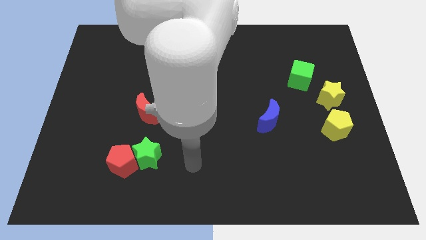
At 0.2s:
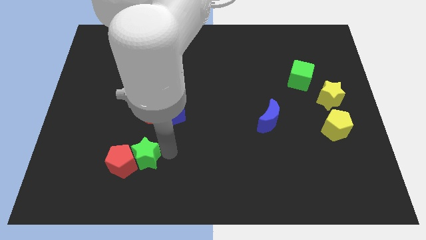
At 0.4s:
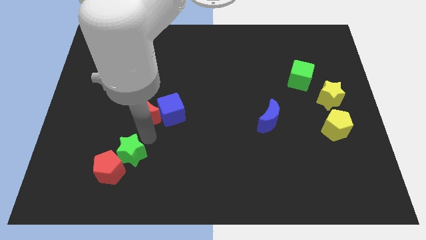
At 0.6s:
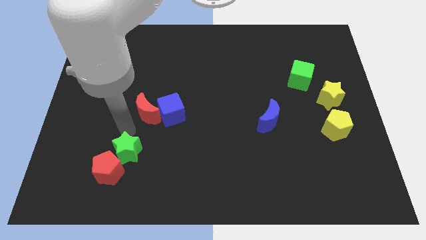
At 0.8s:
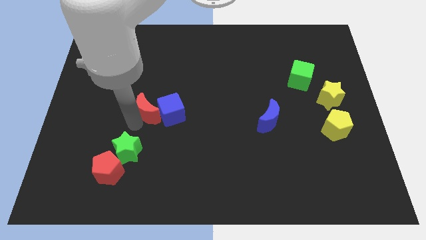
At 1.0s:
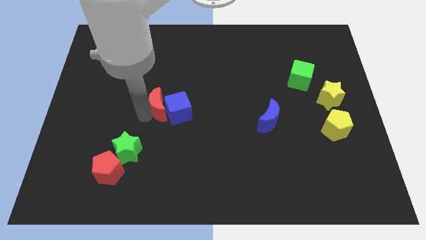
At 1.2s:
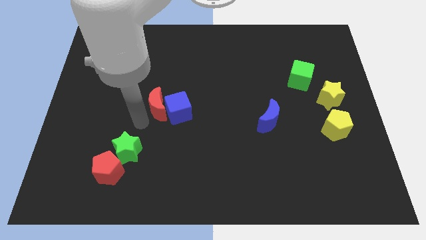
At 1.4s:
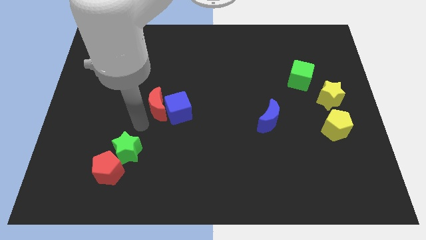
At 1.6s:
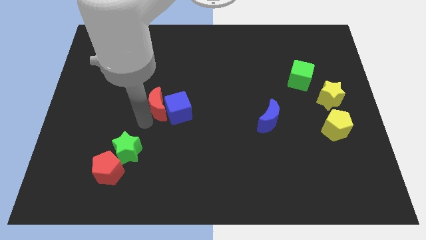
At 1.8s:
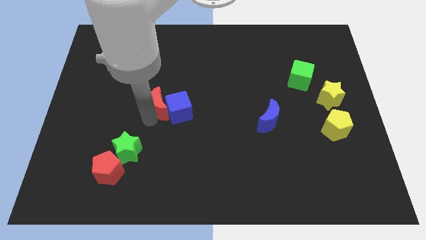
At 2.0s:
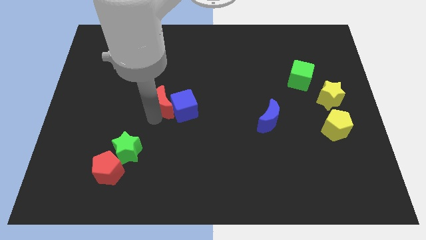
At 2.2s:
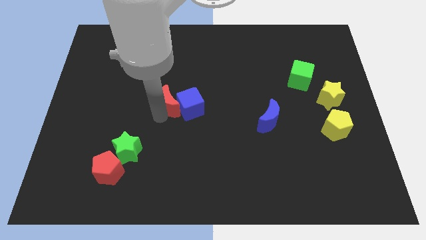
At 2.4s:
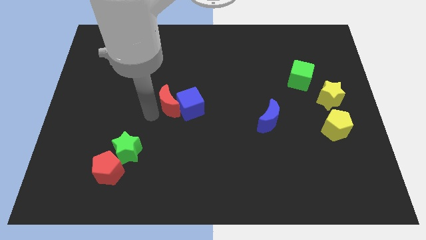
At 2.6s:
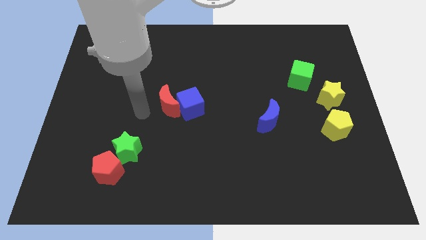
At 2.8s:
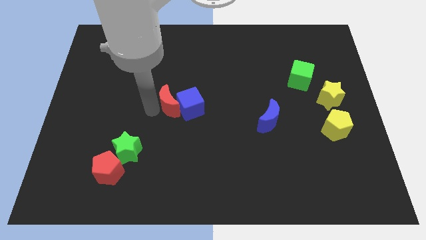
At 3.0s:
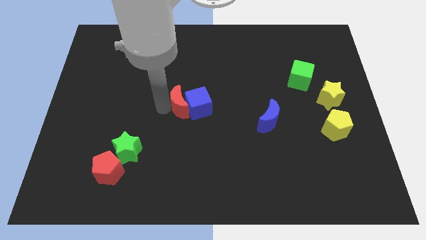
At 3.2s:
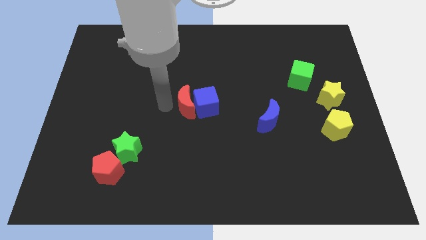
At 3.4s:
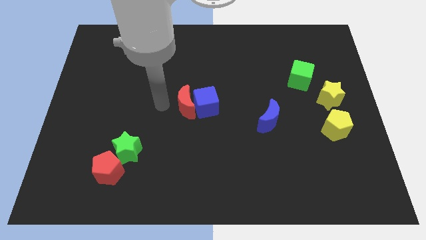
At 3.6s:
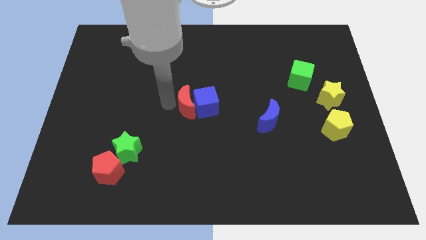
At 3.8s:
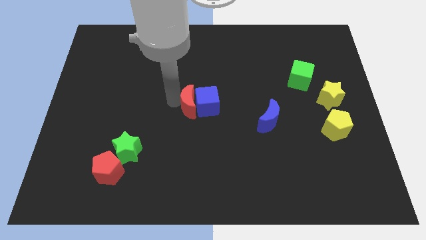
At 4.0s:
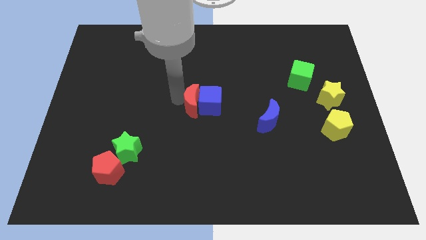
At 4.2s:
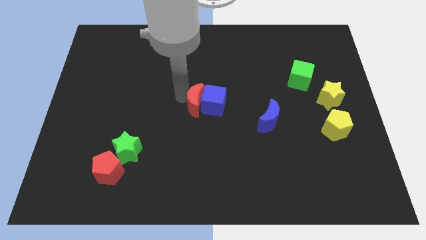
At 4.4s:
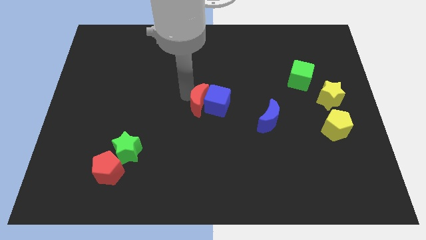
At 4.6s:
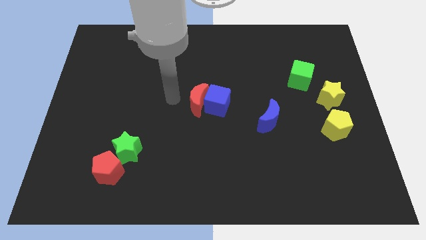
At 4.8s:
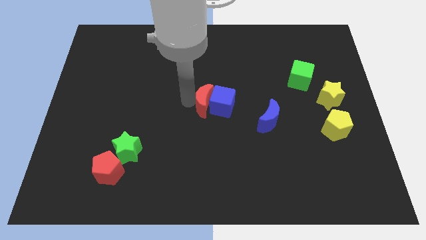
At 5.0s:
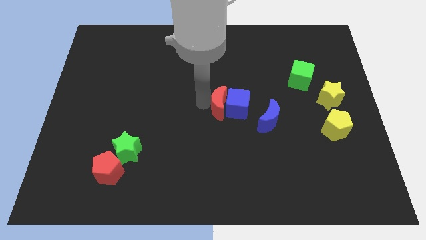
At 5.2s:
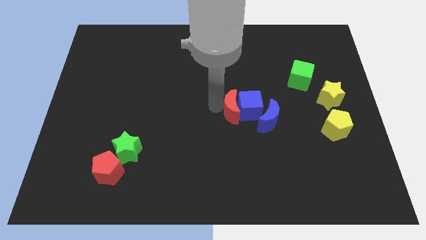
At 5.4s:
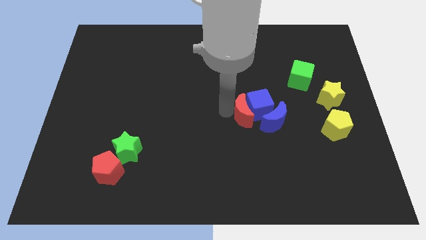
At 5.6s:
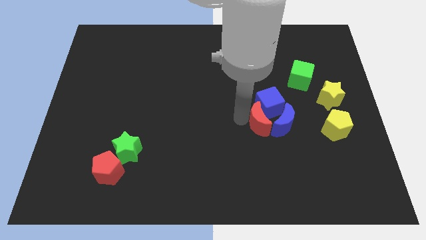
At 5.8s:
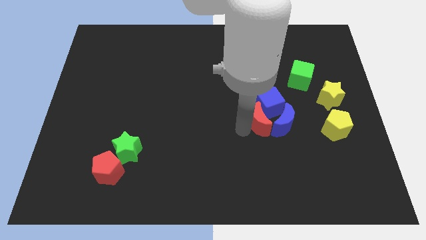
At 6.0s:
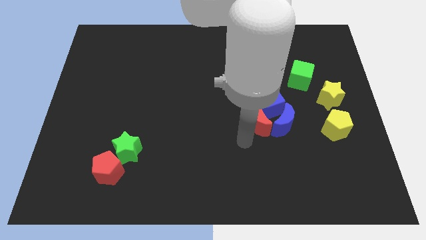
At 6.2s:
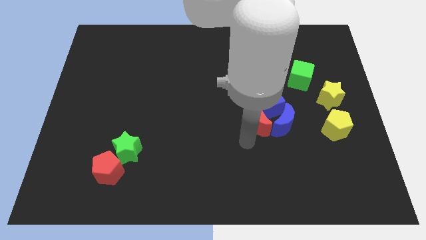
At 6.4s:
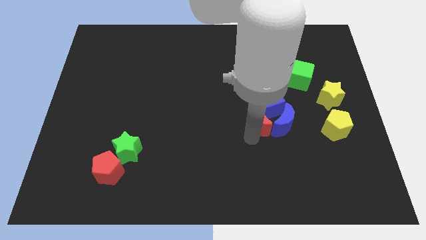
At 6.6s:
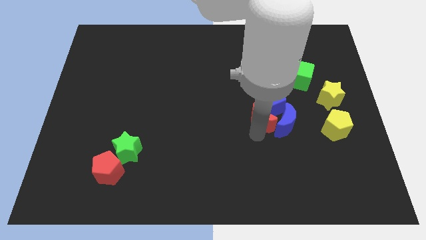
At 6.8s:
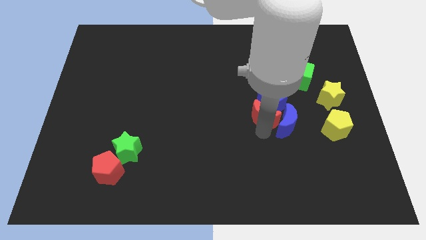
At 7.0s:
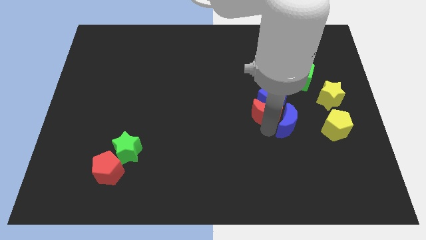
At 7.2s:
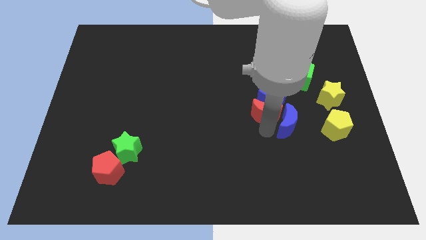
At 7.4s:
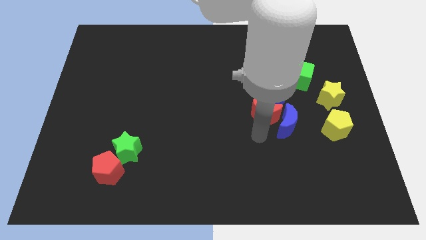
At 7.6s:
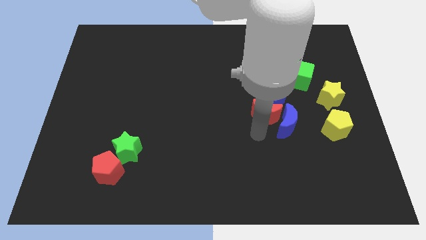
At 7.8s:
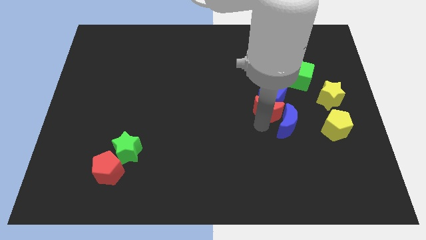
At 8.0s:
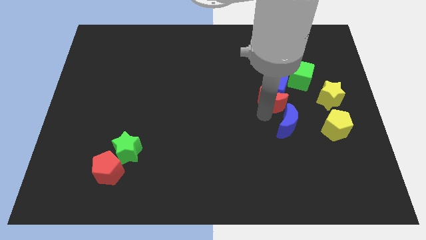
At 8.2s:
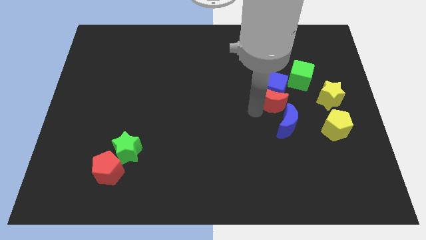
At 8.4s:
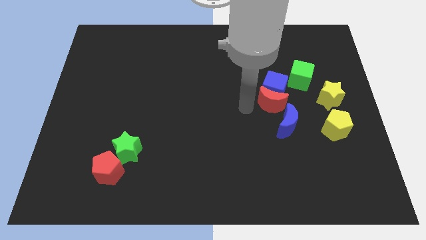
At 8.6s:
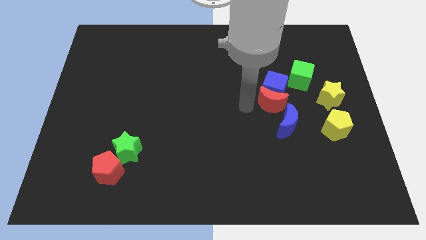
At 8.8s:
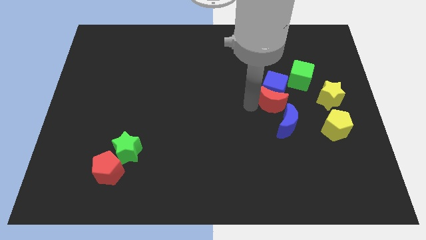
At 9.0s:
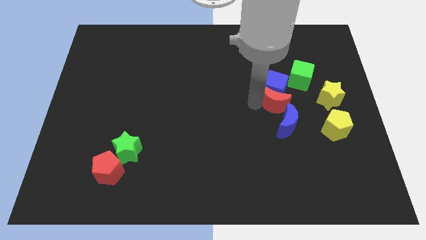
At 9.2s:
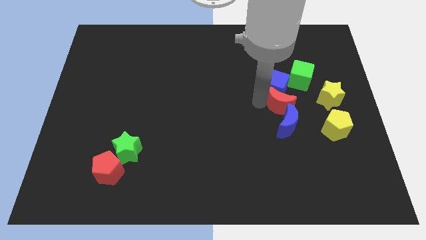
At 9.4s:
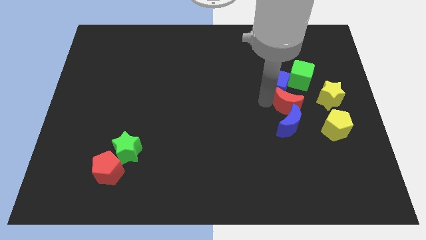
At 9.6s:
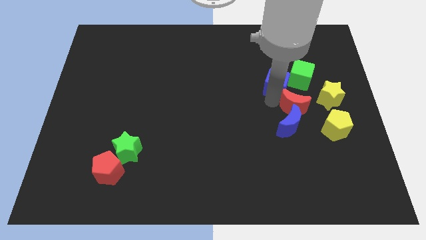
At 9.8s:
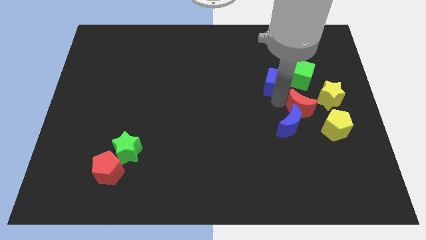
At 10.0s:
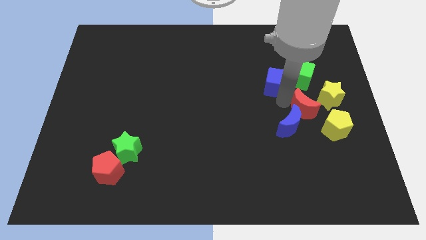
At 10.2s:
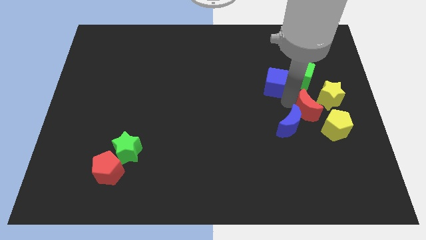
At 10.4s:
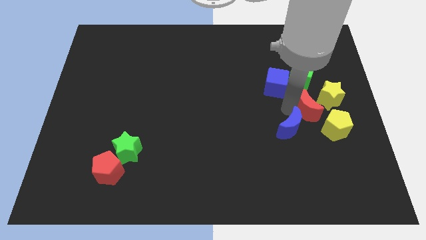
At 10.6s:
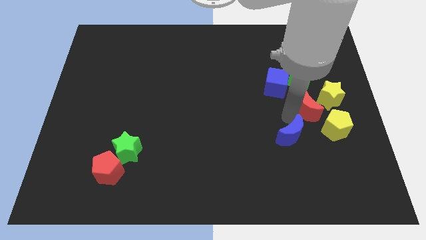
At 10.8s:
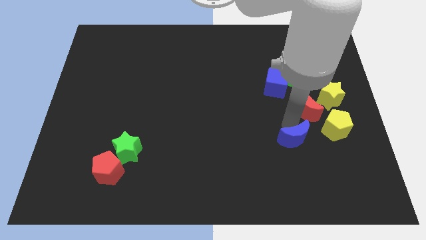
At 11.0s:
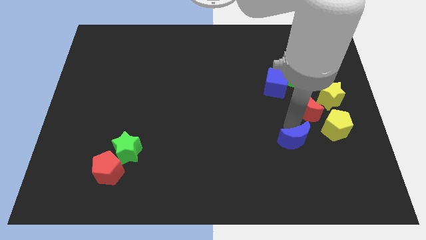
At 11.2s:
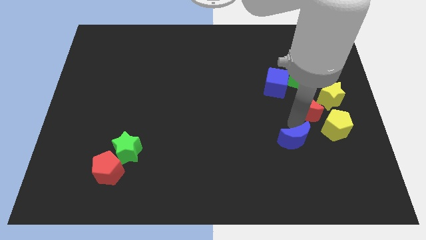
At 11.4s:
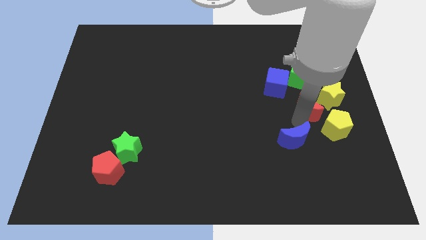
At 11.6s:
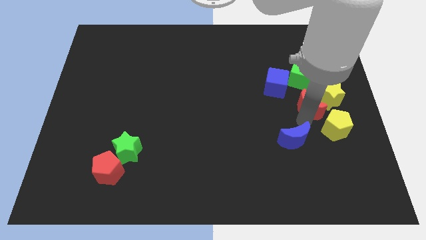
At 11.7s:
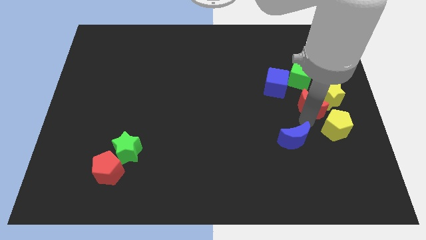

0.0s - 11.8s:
move the red moon close to the yellow star

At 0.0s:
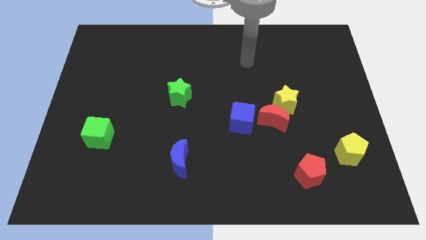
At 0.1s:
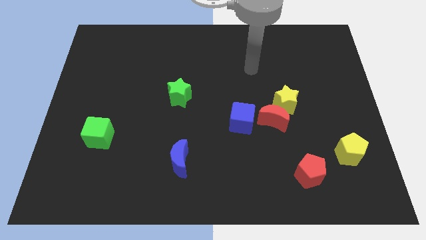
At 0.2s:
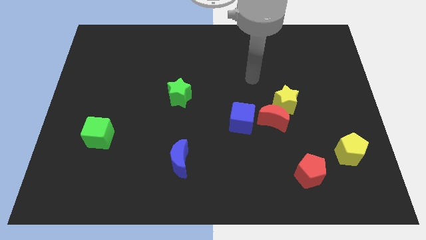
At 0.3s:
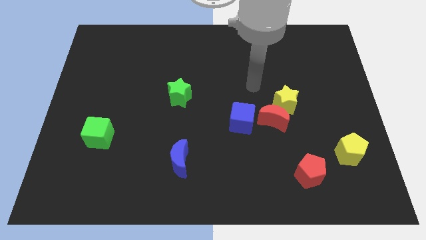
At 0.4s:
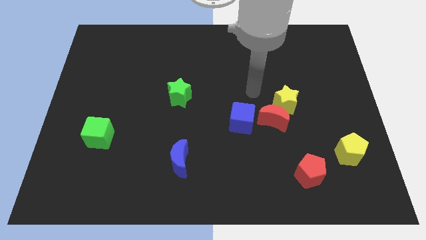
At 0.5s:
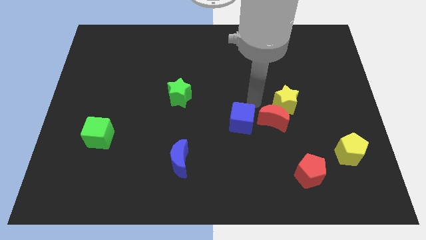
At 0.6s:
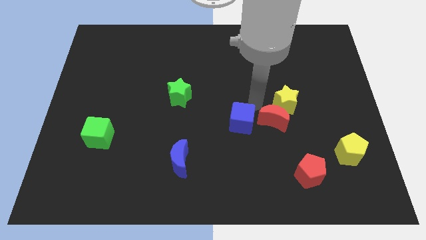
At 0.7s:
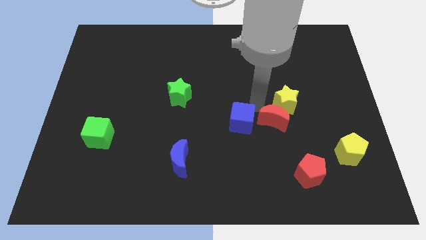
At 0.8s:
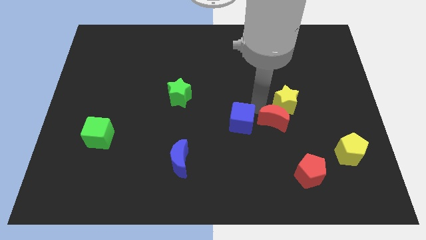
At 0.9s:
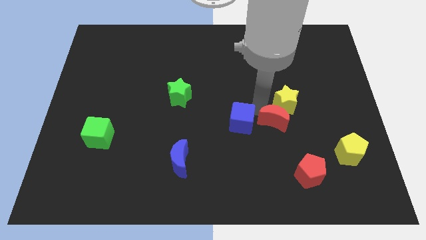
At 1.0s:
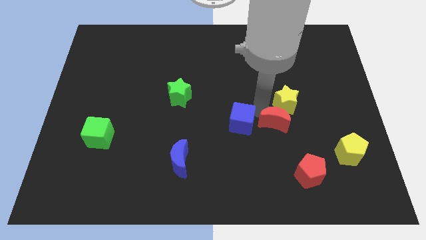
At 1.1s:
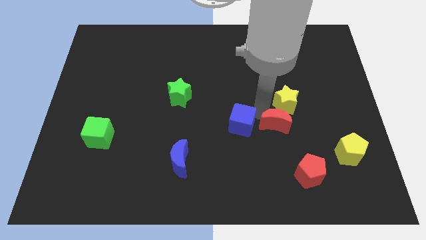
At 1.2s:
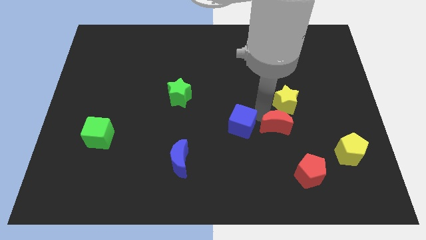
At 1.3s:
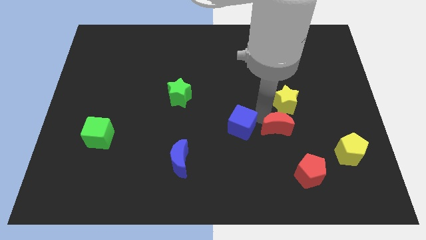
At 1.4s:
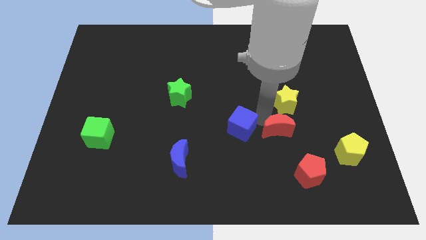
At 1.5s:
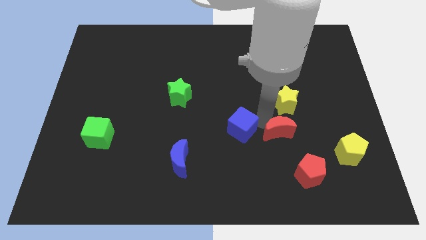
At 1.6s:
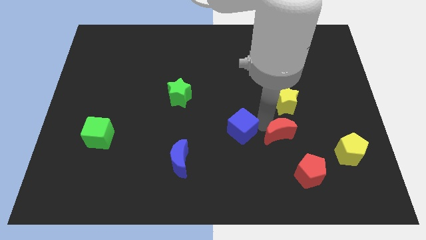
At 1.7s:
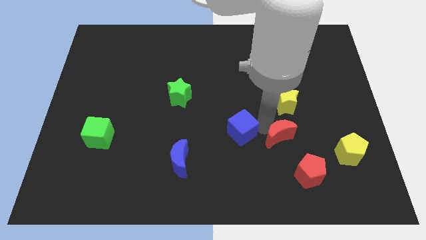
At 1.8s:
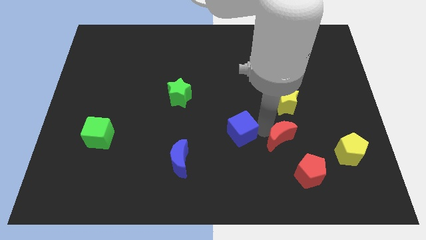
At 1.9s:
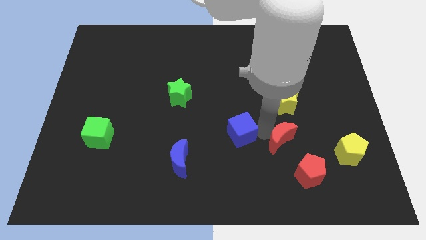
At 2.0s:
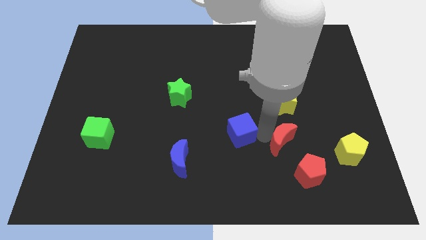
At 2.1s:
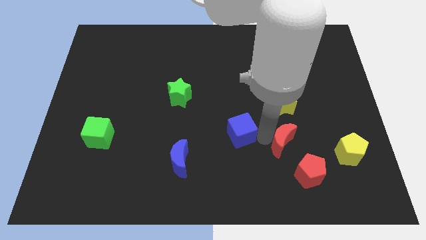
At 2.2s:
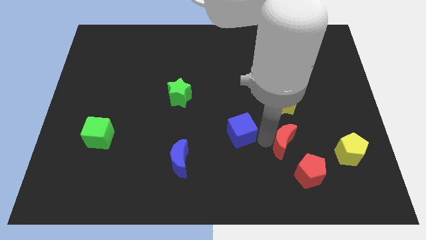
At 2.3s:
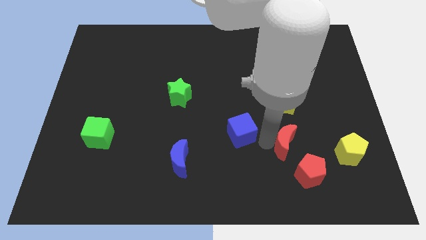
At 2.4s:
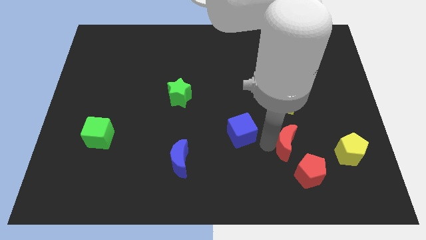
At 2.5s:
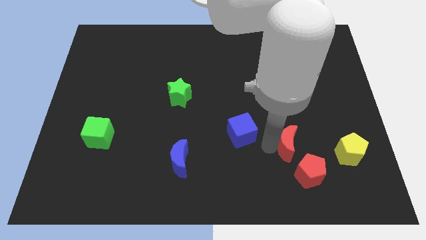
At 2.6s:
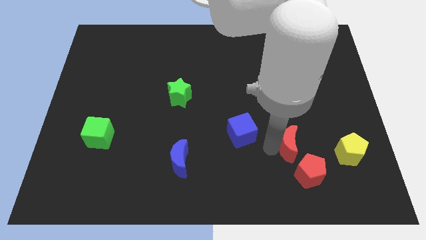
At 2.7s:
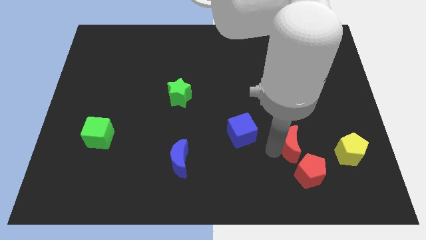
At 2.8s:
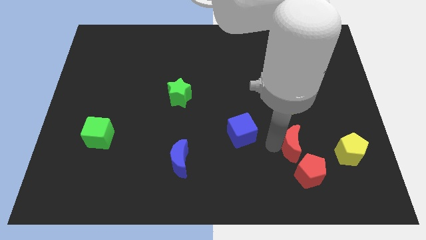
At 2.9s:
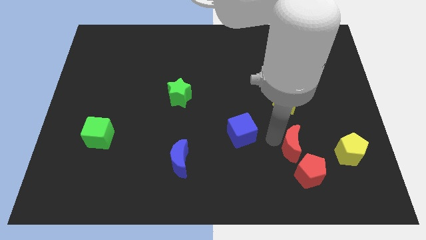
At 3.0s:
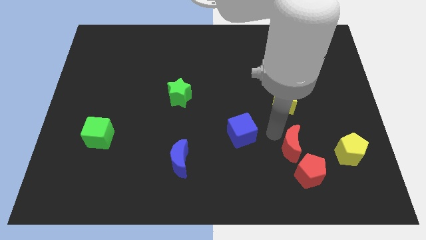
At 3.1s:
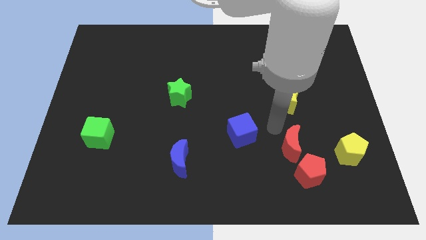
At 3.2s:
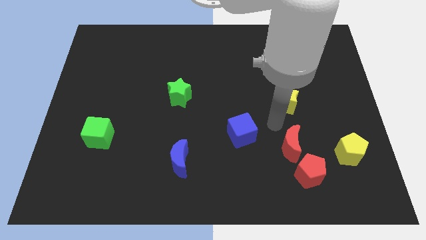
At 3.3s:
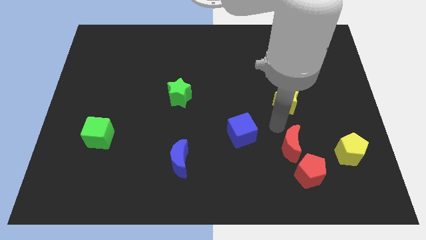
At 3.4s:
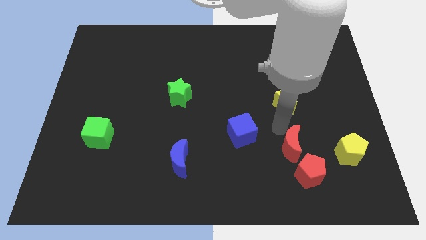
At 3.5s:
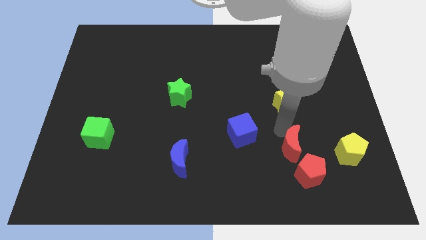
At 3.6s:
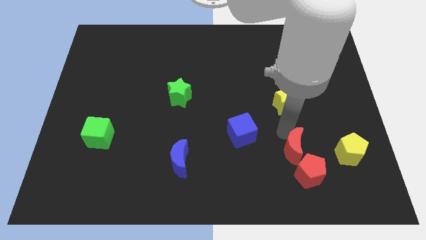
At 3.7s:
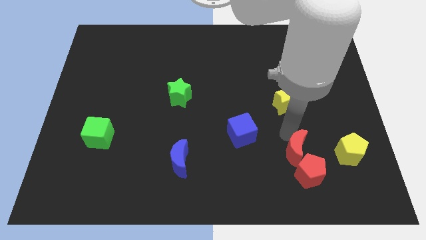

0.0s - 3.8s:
slide the red moon next to the red pentagon
